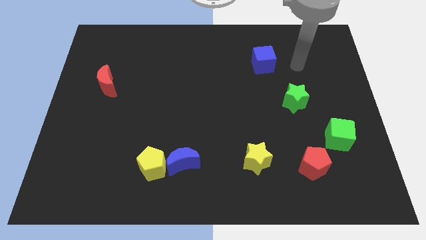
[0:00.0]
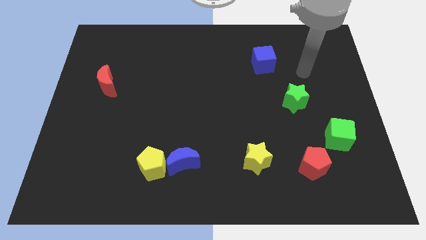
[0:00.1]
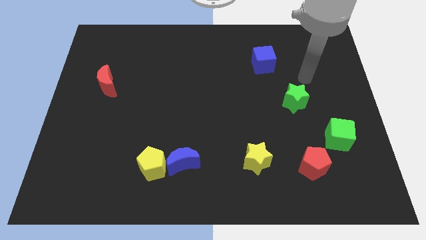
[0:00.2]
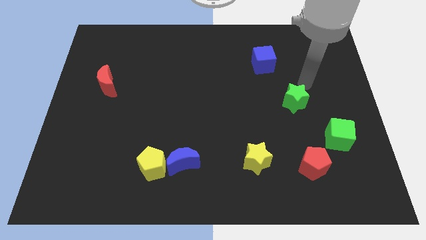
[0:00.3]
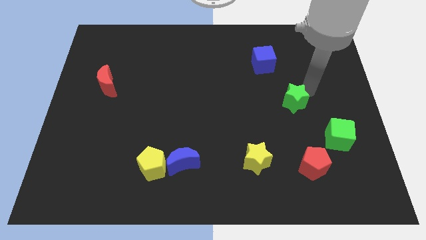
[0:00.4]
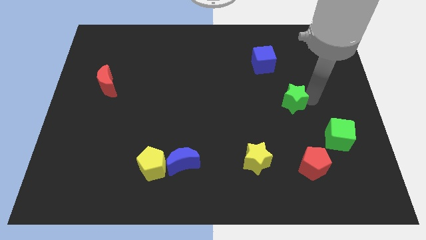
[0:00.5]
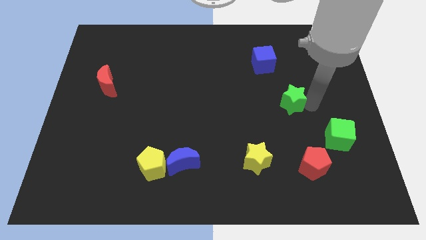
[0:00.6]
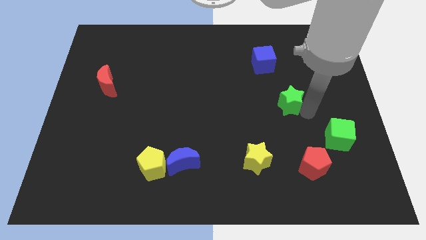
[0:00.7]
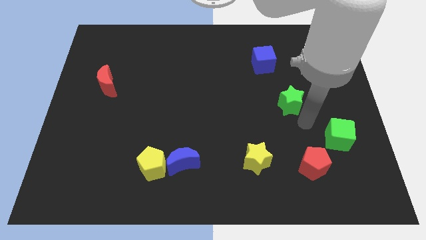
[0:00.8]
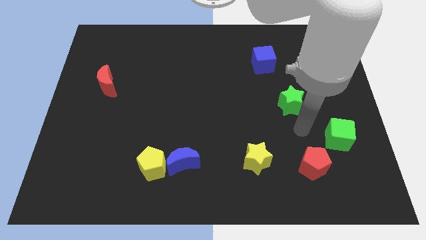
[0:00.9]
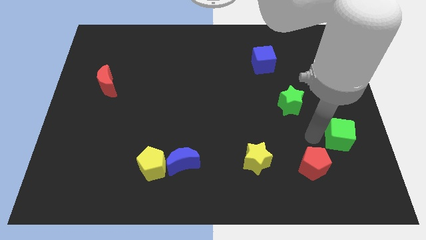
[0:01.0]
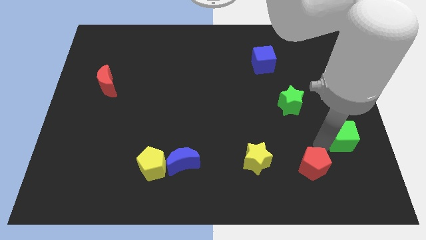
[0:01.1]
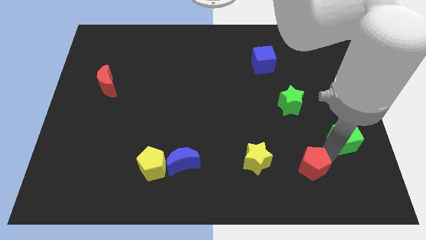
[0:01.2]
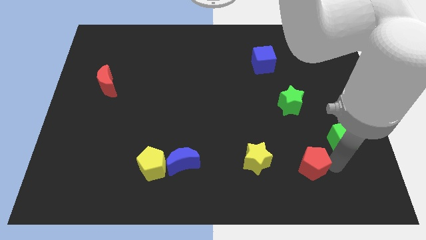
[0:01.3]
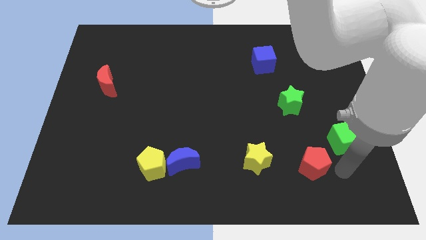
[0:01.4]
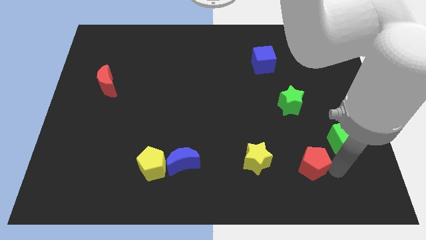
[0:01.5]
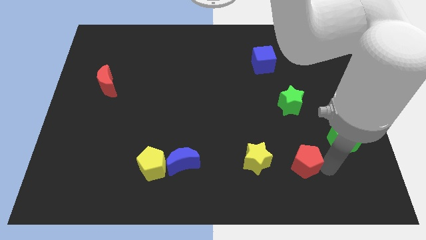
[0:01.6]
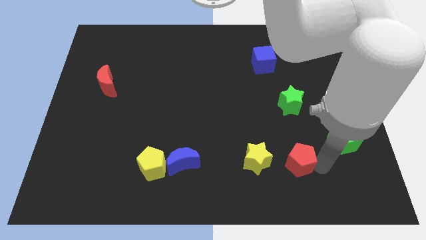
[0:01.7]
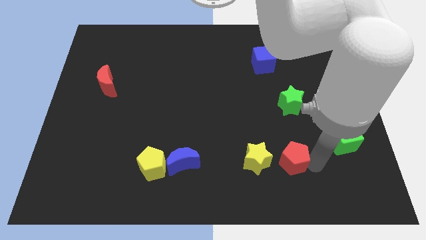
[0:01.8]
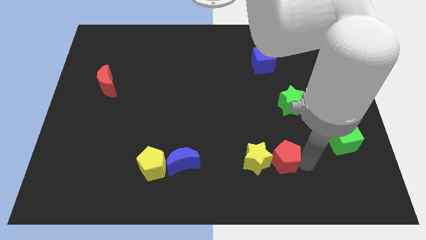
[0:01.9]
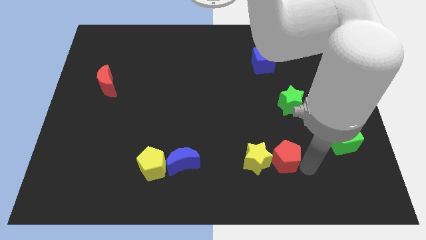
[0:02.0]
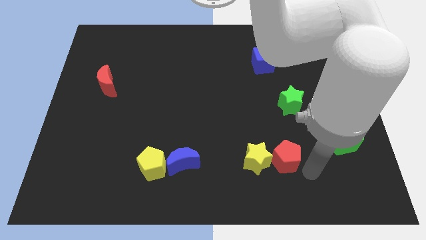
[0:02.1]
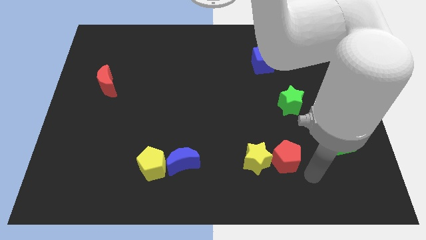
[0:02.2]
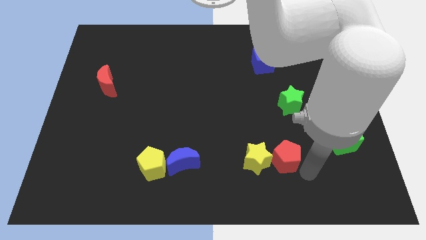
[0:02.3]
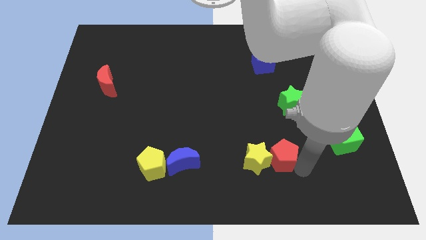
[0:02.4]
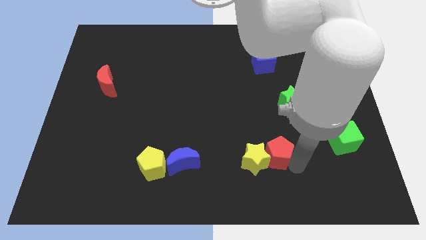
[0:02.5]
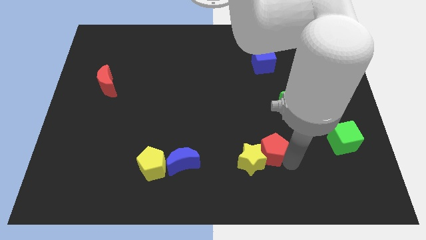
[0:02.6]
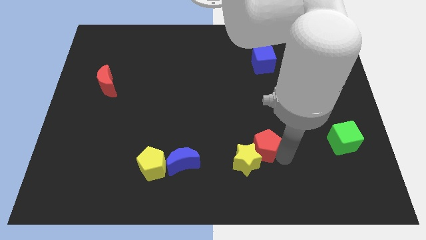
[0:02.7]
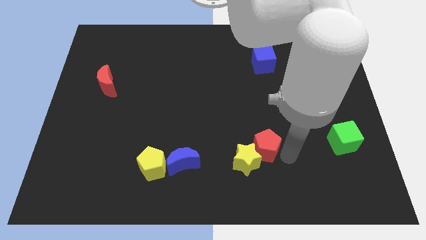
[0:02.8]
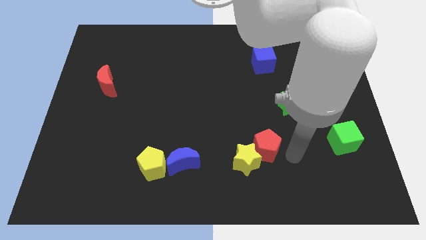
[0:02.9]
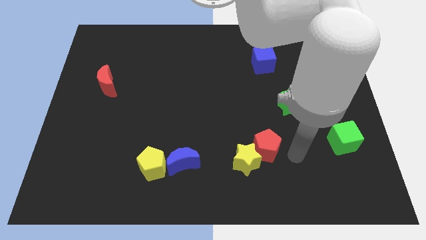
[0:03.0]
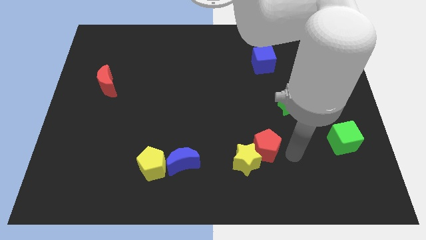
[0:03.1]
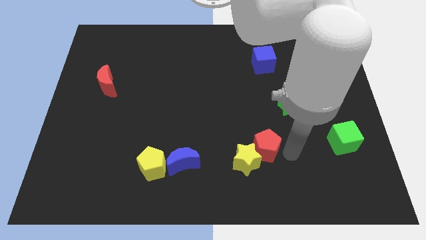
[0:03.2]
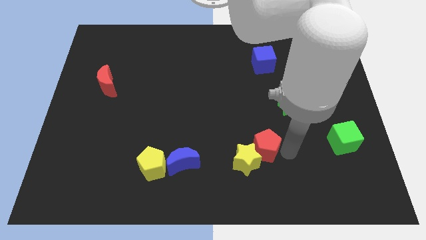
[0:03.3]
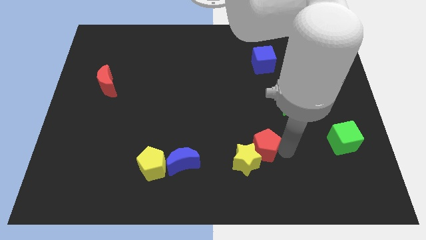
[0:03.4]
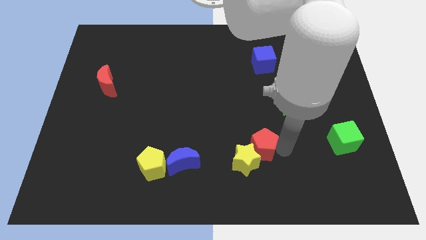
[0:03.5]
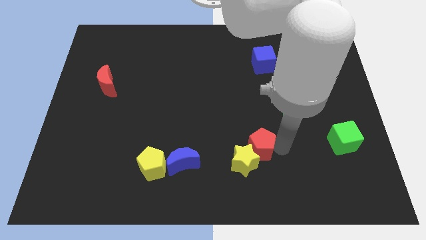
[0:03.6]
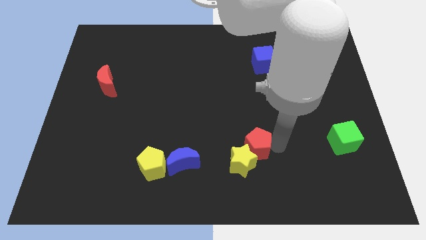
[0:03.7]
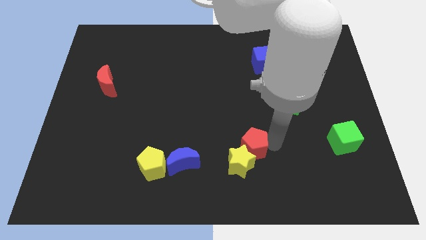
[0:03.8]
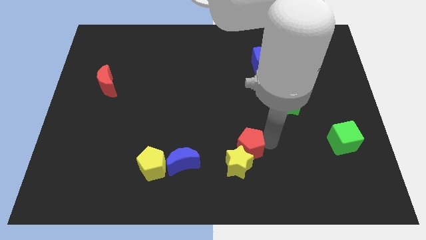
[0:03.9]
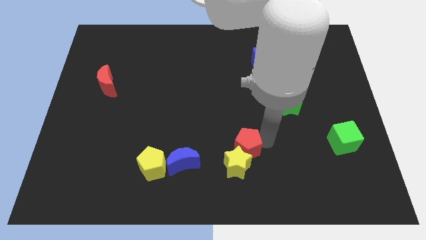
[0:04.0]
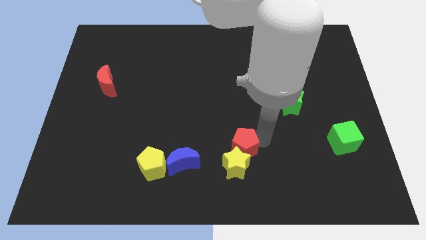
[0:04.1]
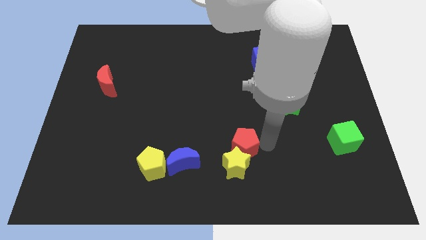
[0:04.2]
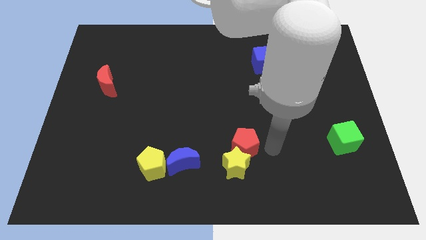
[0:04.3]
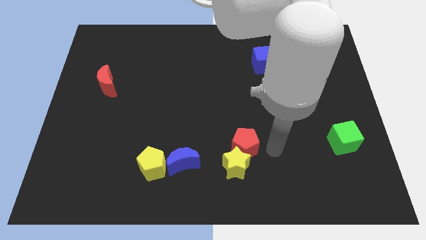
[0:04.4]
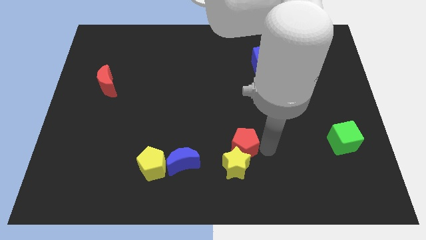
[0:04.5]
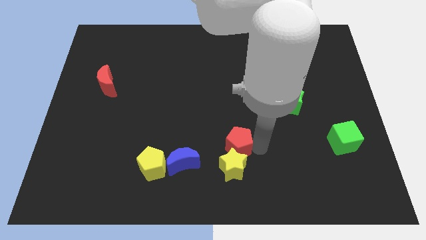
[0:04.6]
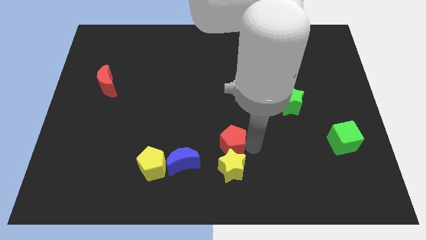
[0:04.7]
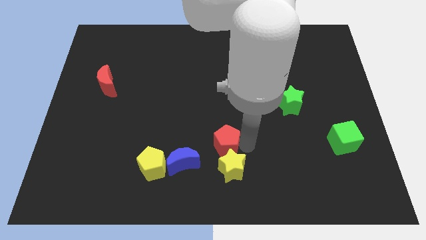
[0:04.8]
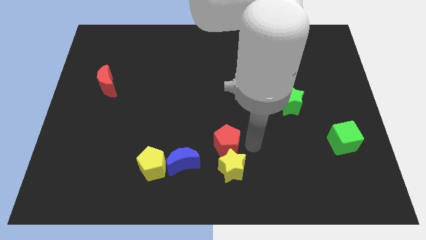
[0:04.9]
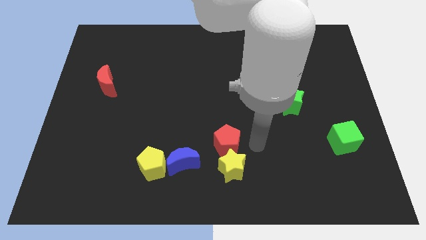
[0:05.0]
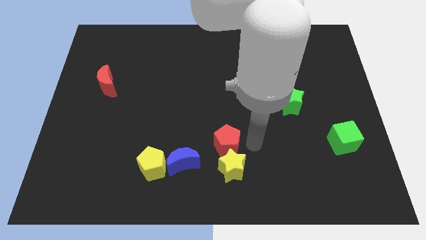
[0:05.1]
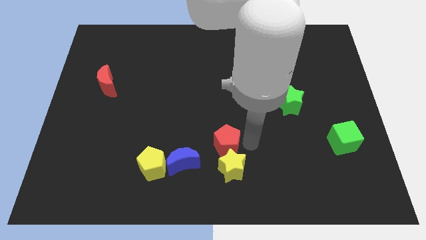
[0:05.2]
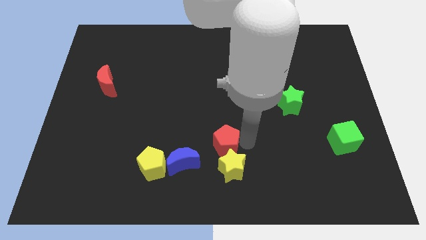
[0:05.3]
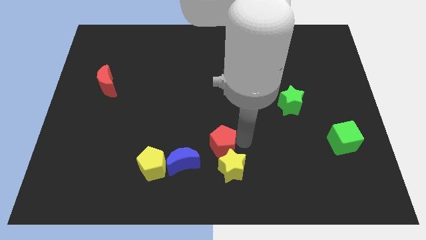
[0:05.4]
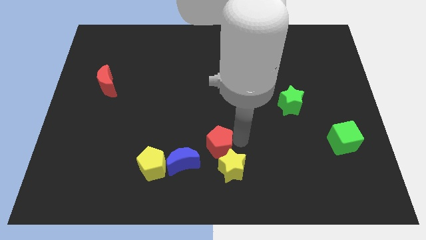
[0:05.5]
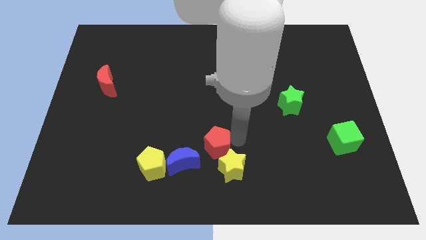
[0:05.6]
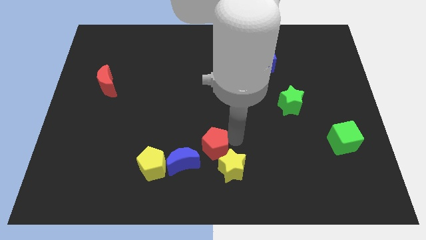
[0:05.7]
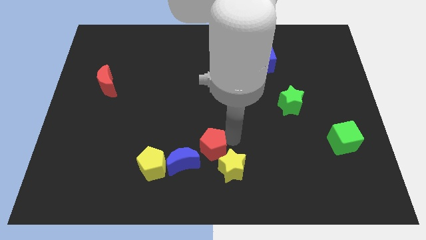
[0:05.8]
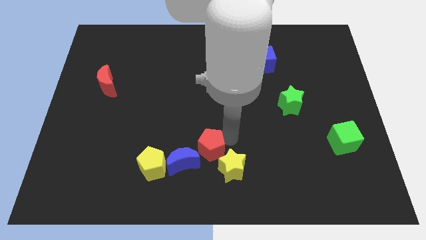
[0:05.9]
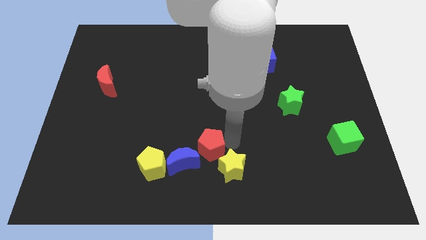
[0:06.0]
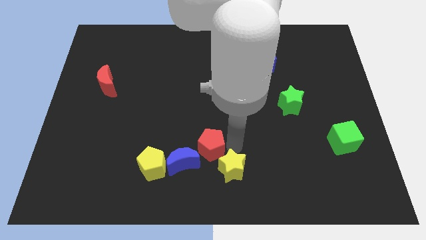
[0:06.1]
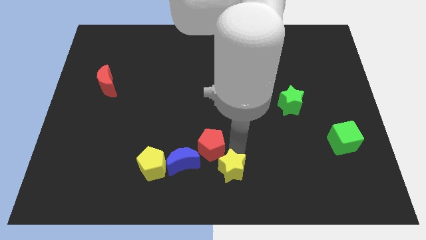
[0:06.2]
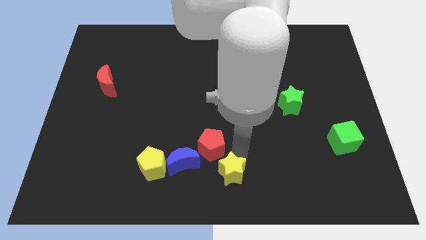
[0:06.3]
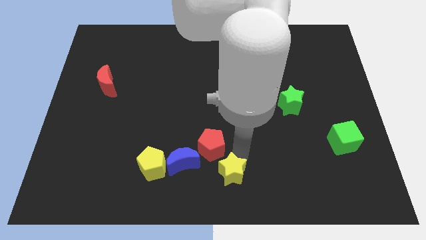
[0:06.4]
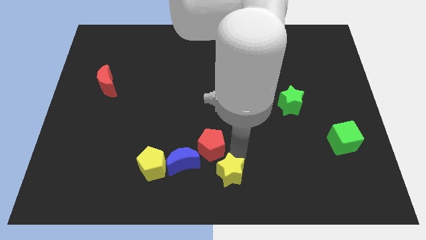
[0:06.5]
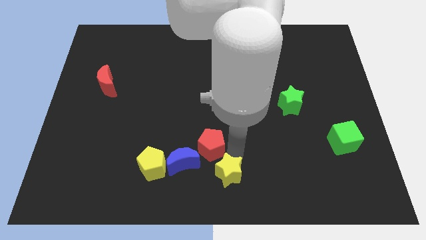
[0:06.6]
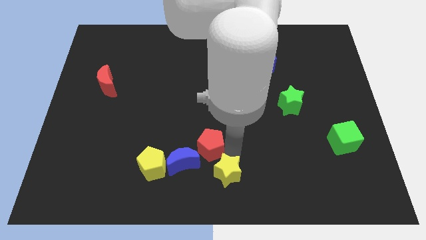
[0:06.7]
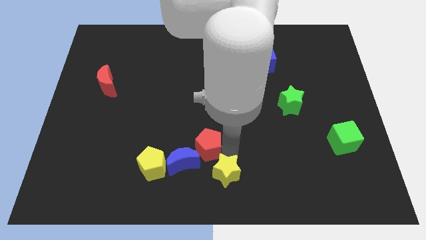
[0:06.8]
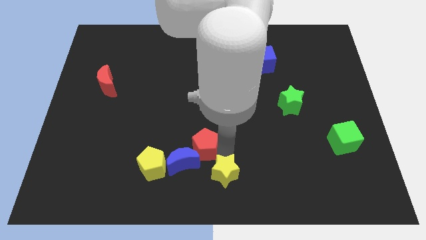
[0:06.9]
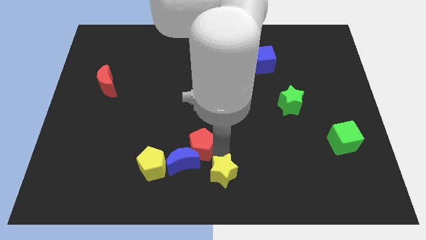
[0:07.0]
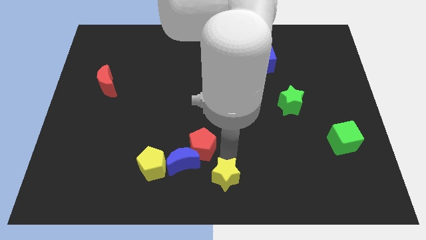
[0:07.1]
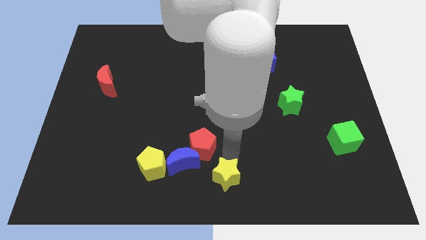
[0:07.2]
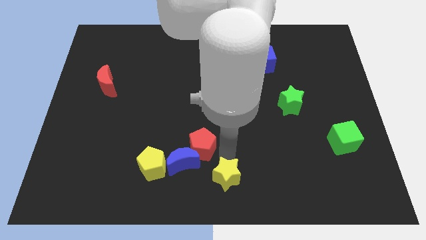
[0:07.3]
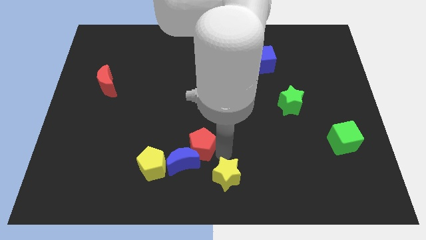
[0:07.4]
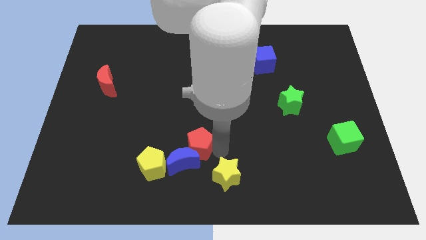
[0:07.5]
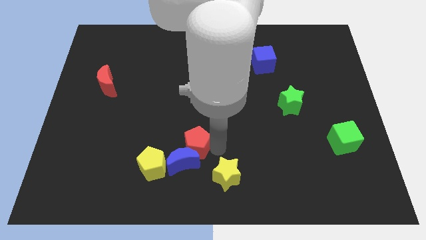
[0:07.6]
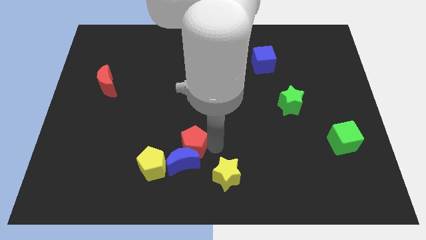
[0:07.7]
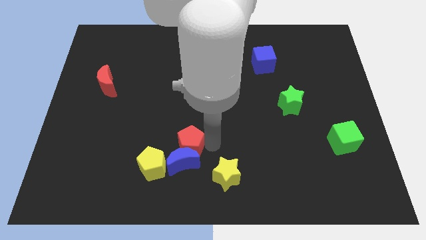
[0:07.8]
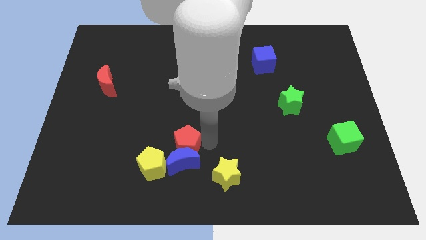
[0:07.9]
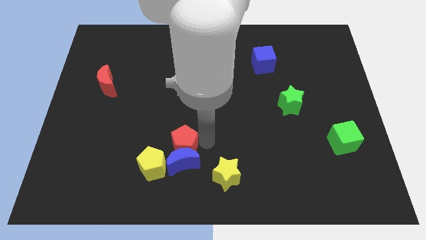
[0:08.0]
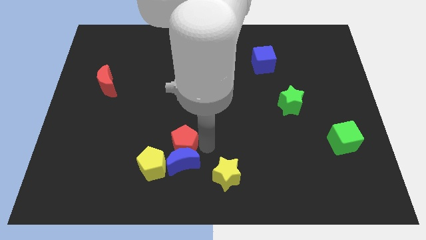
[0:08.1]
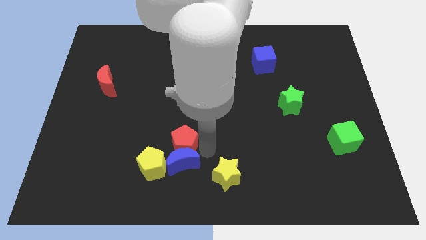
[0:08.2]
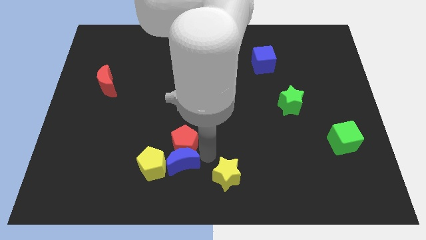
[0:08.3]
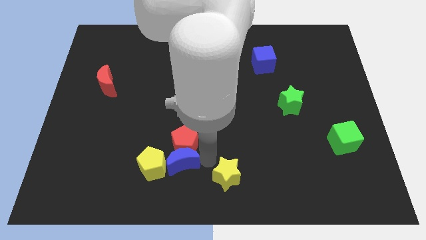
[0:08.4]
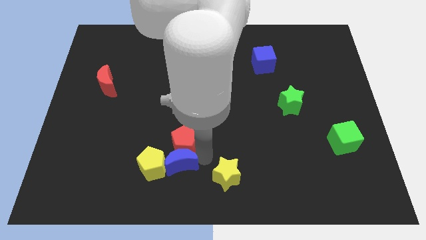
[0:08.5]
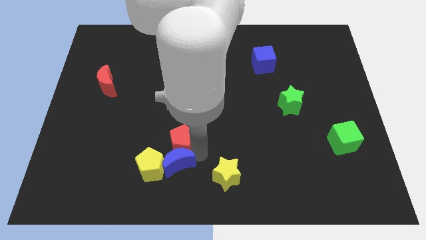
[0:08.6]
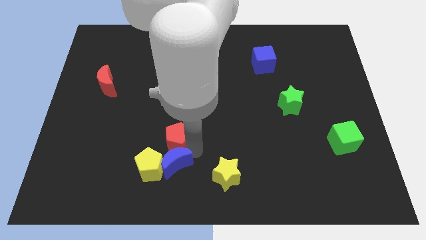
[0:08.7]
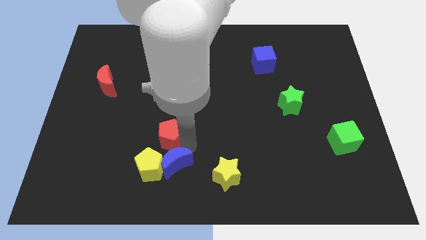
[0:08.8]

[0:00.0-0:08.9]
move the red pentagon to the top side of the yellow pentagon
